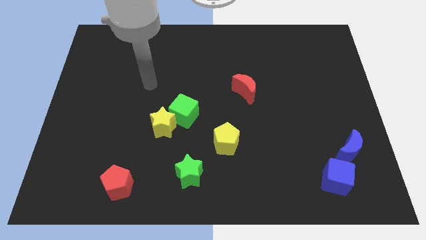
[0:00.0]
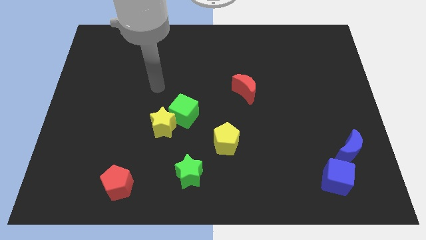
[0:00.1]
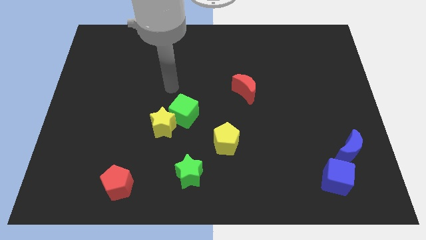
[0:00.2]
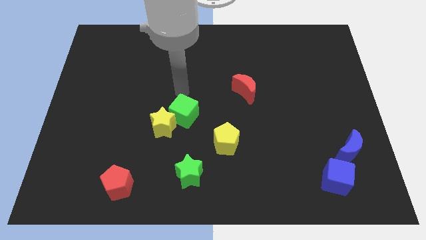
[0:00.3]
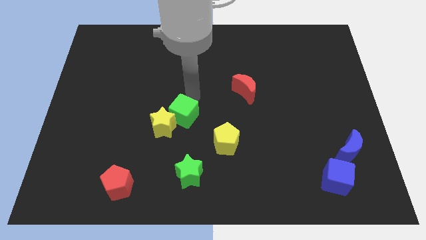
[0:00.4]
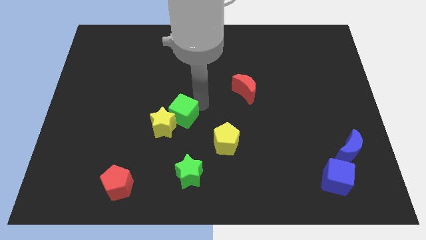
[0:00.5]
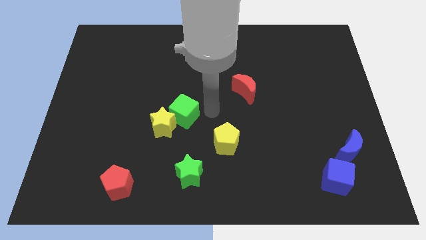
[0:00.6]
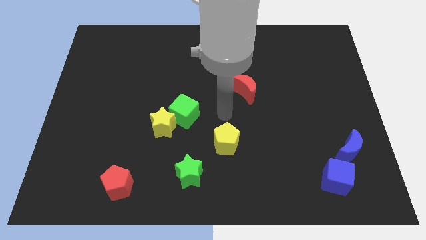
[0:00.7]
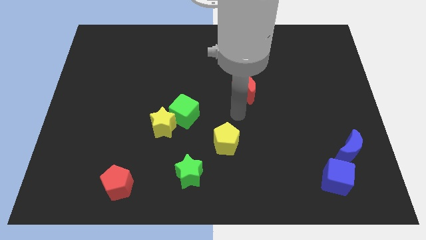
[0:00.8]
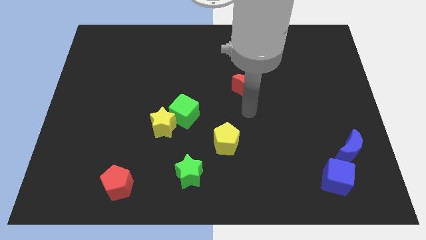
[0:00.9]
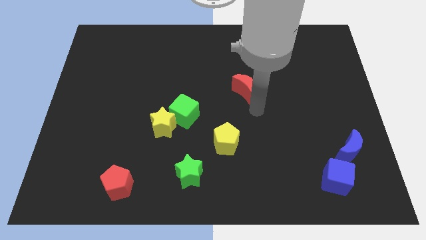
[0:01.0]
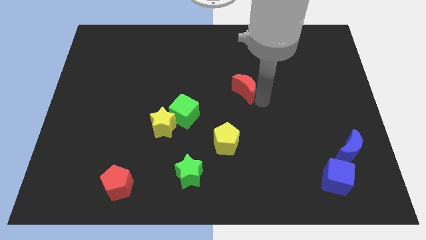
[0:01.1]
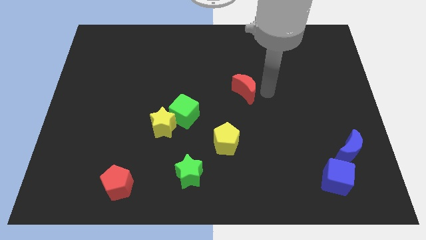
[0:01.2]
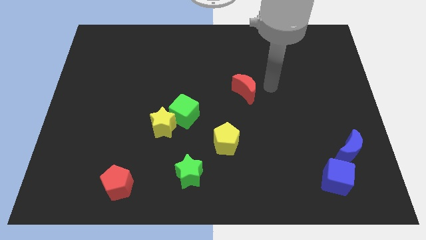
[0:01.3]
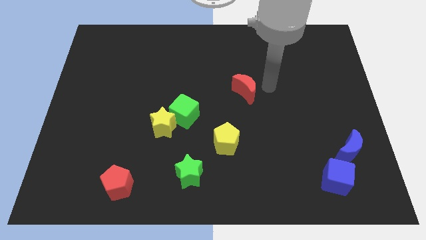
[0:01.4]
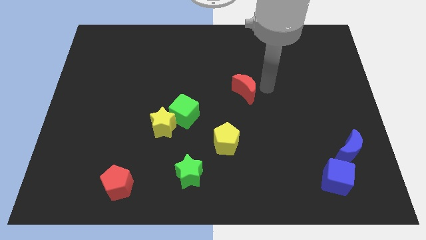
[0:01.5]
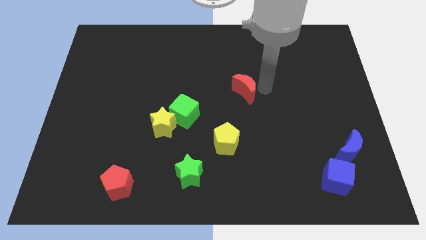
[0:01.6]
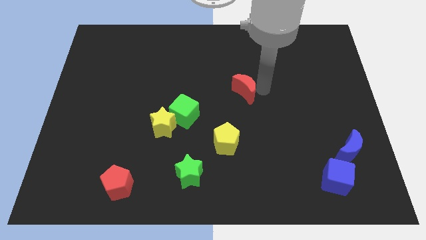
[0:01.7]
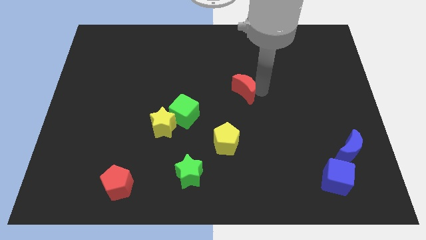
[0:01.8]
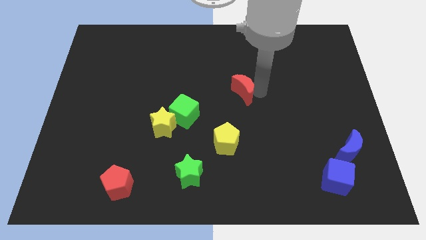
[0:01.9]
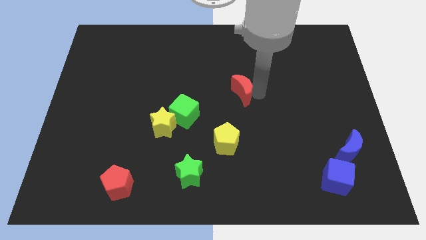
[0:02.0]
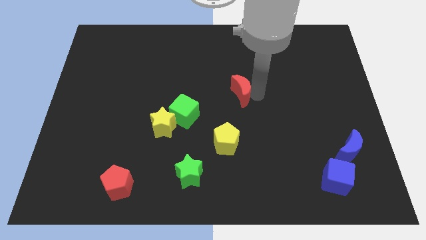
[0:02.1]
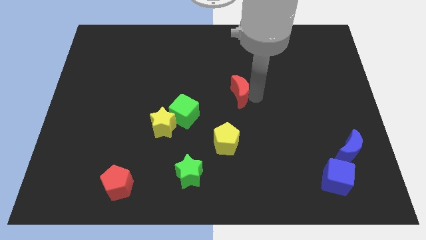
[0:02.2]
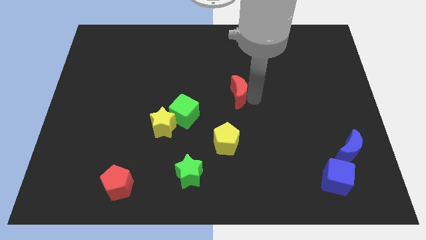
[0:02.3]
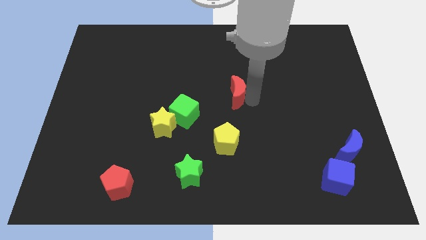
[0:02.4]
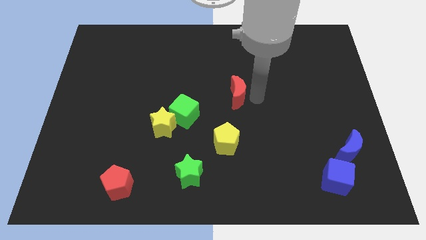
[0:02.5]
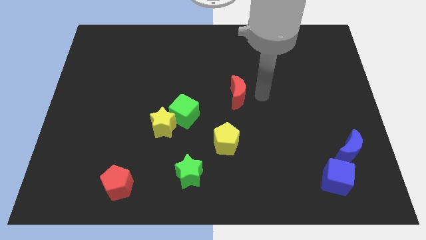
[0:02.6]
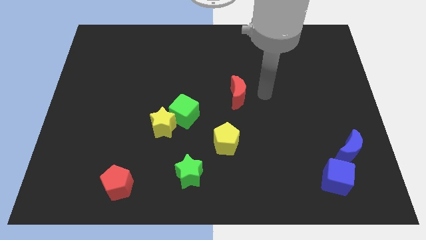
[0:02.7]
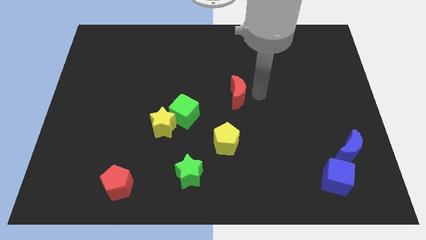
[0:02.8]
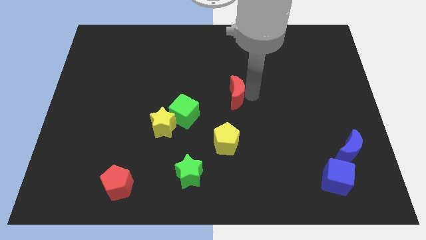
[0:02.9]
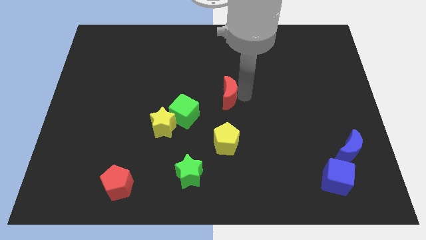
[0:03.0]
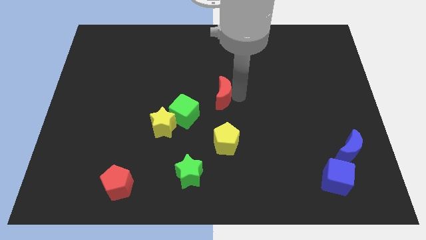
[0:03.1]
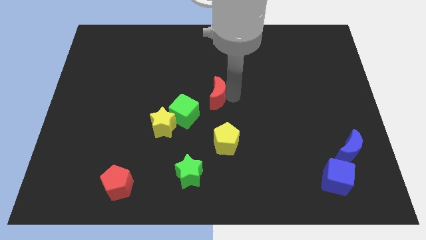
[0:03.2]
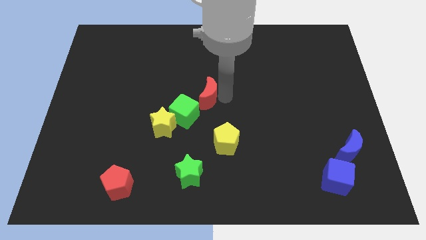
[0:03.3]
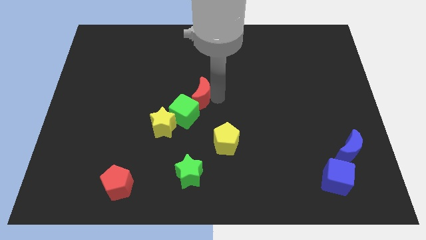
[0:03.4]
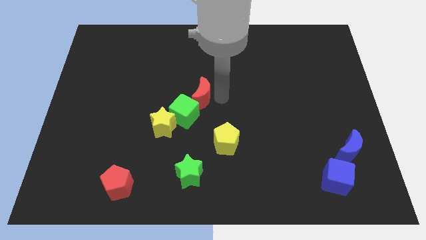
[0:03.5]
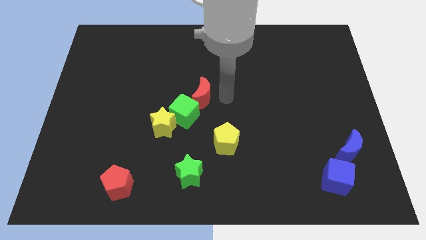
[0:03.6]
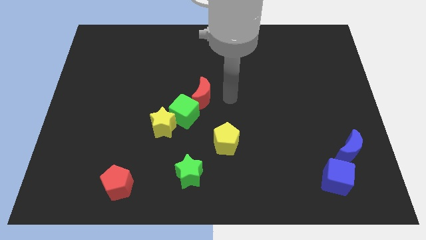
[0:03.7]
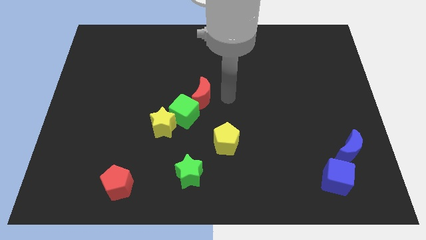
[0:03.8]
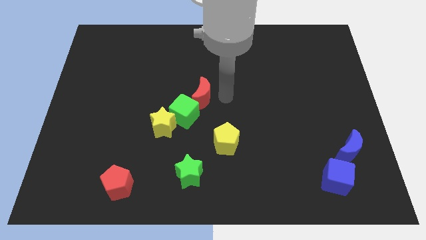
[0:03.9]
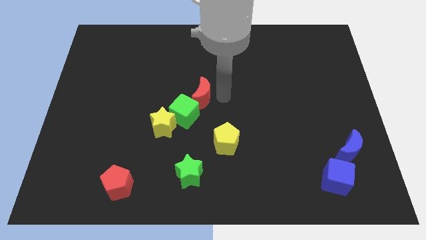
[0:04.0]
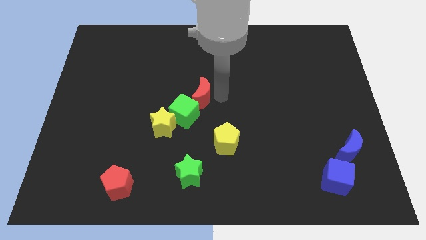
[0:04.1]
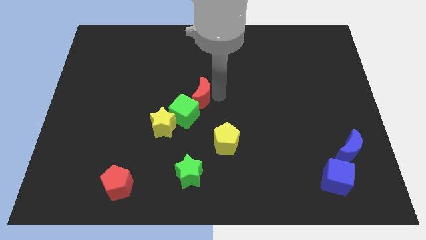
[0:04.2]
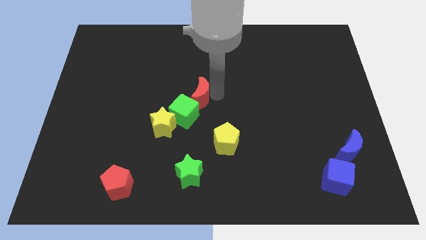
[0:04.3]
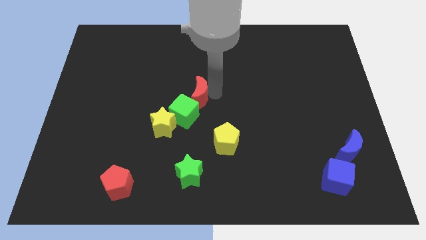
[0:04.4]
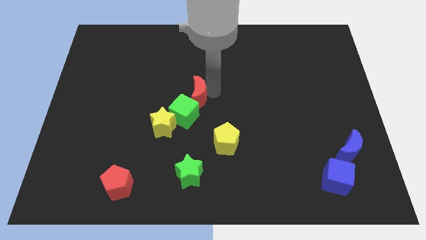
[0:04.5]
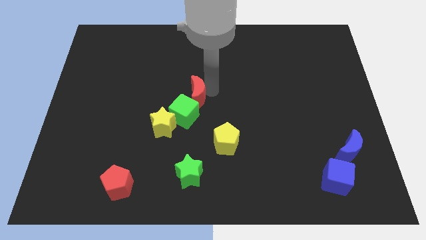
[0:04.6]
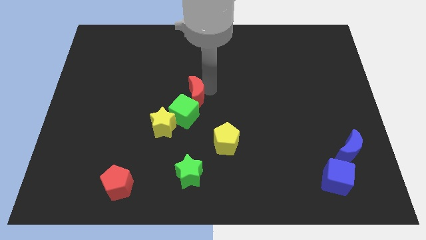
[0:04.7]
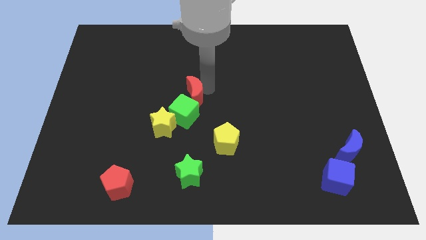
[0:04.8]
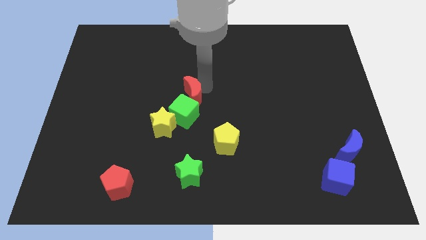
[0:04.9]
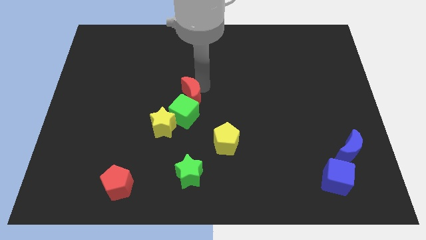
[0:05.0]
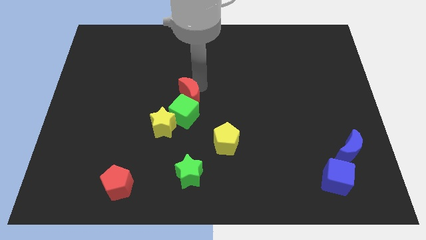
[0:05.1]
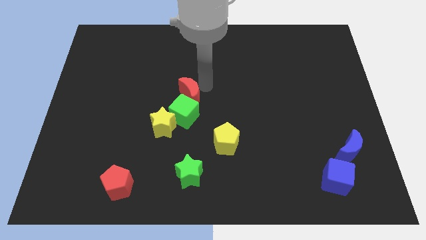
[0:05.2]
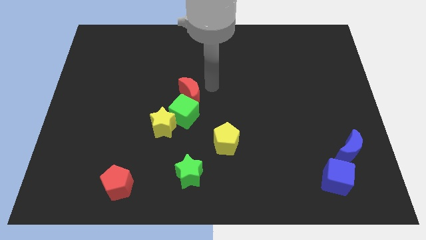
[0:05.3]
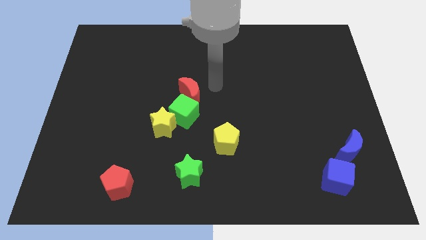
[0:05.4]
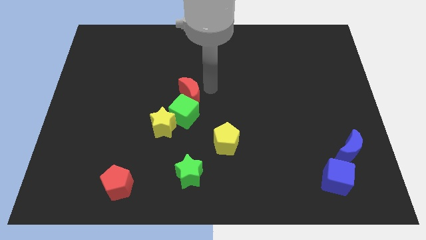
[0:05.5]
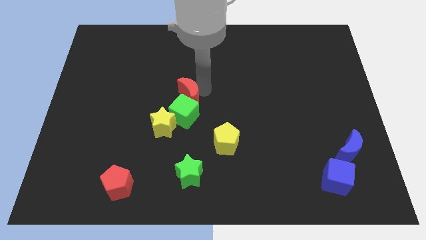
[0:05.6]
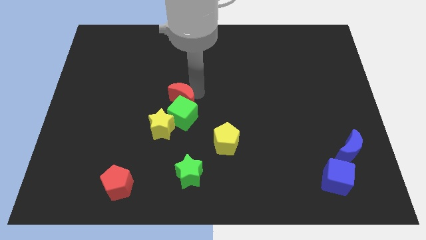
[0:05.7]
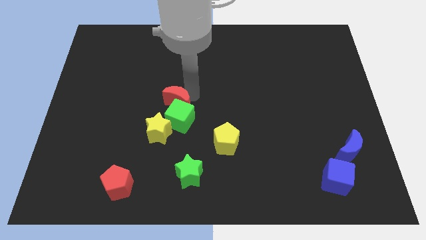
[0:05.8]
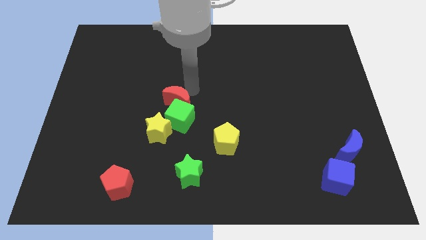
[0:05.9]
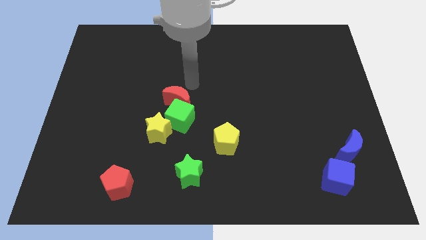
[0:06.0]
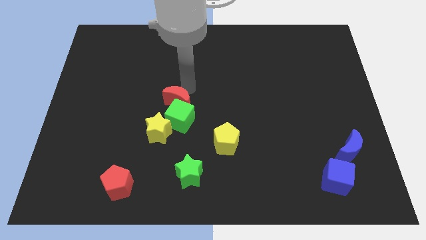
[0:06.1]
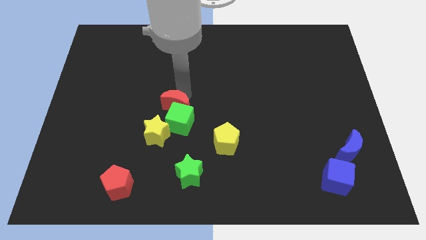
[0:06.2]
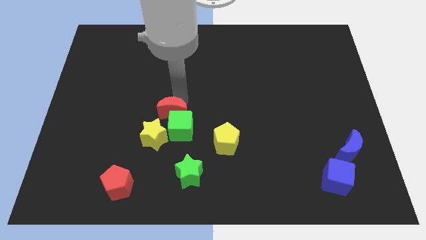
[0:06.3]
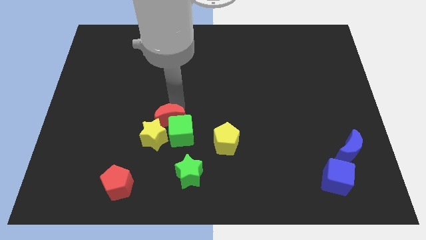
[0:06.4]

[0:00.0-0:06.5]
slide the red moon towards the yellow star
